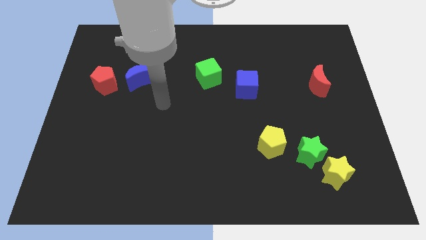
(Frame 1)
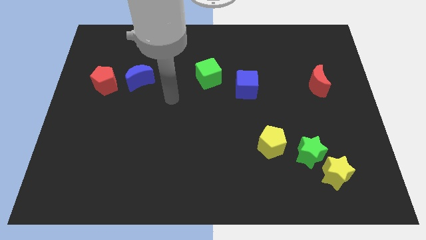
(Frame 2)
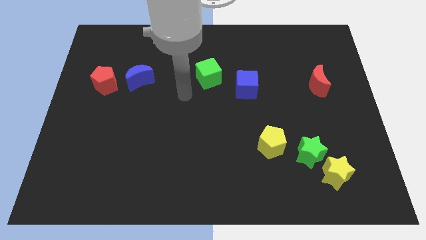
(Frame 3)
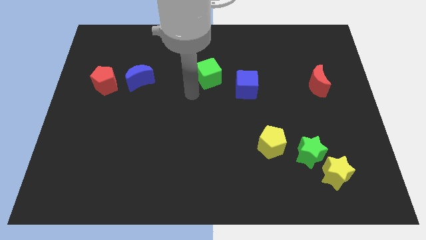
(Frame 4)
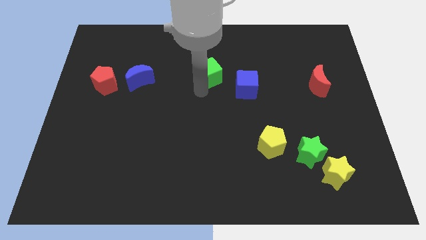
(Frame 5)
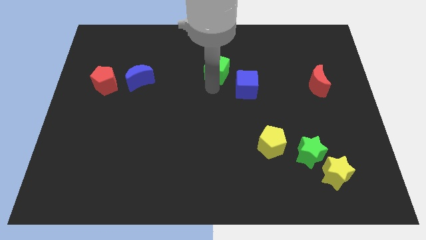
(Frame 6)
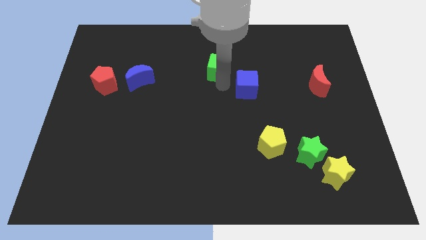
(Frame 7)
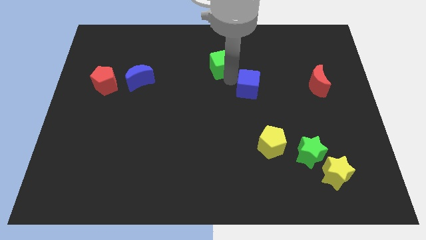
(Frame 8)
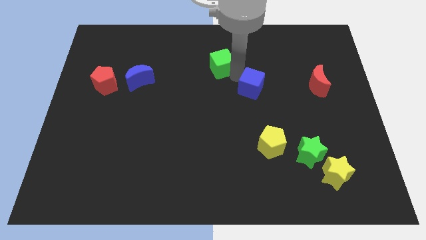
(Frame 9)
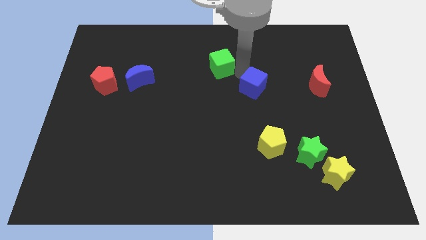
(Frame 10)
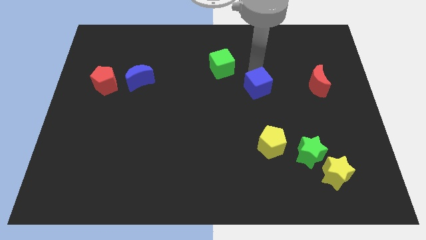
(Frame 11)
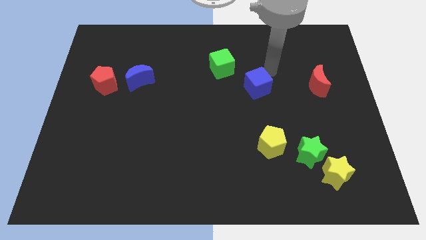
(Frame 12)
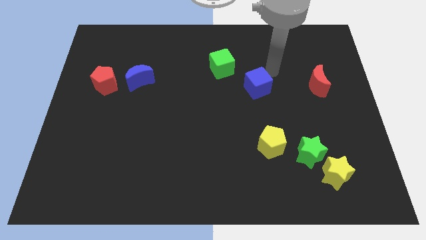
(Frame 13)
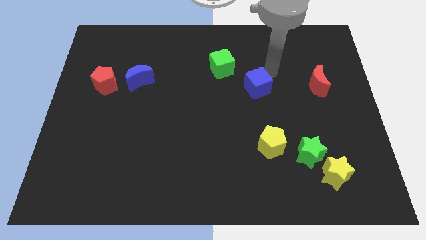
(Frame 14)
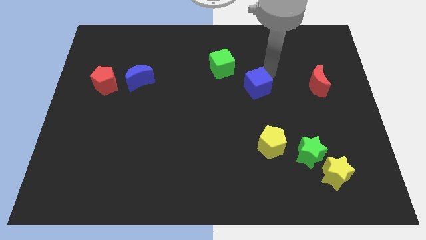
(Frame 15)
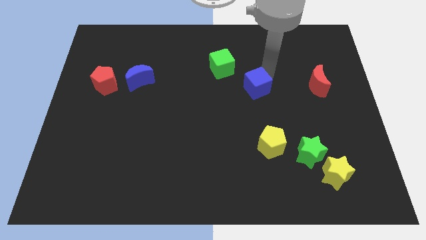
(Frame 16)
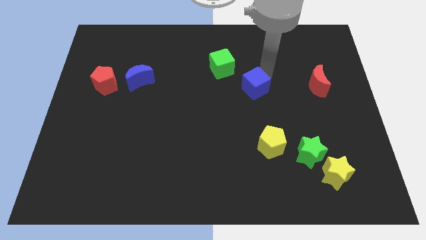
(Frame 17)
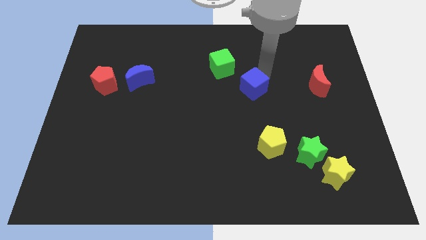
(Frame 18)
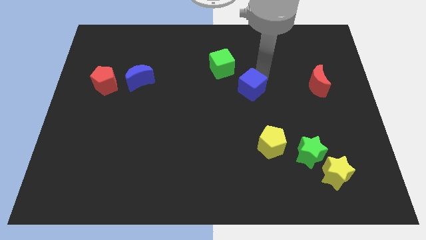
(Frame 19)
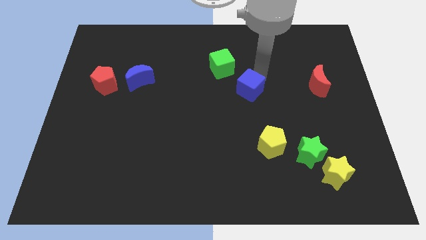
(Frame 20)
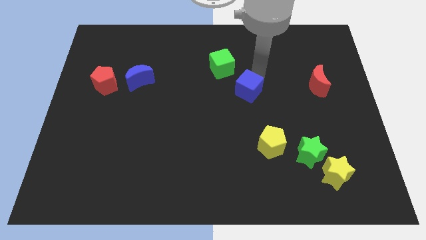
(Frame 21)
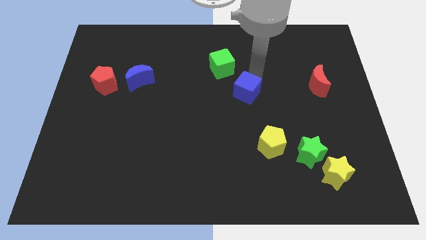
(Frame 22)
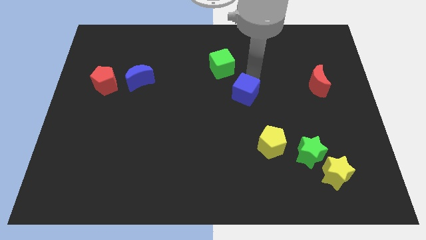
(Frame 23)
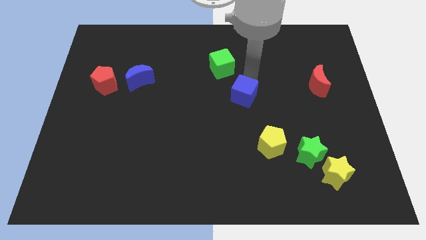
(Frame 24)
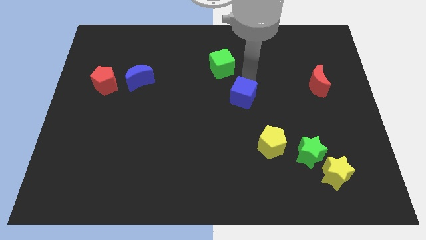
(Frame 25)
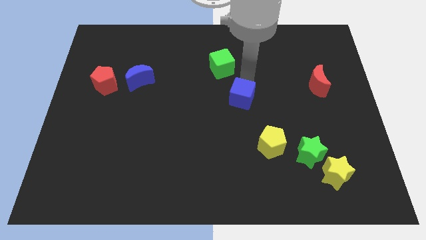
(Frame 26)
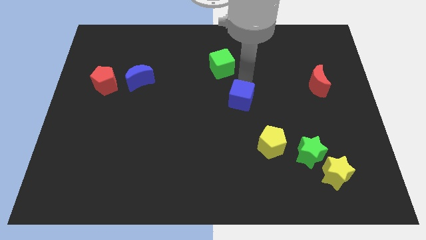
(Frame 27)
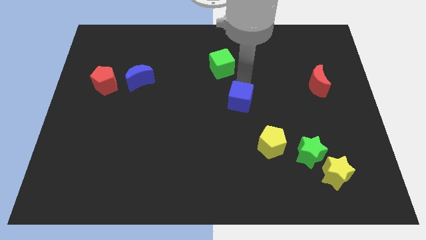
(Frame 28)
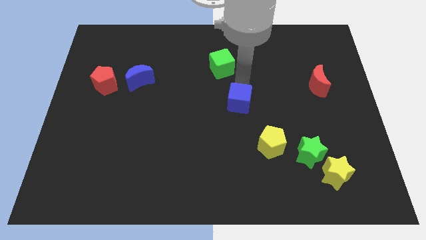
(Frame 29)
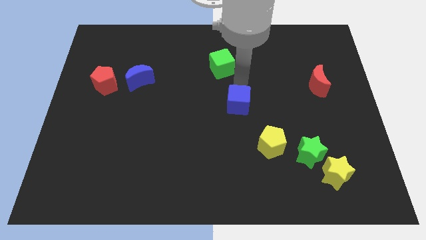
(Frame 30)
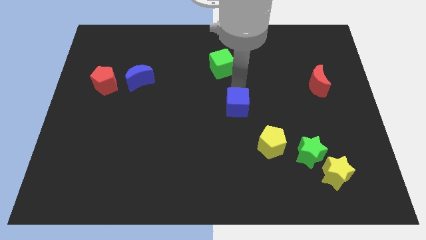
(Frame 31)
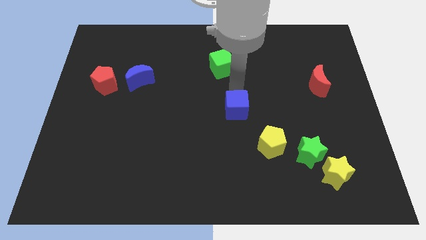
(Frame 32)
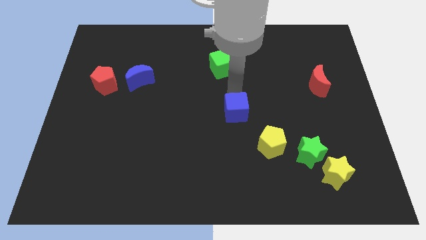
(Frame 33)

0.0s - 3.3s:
push the blue cube downwards a little bit

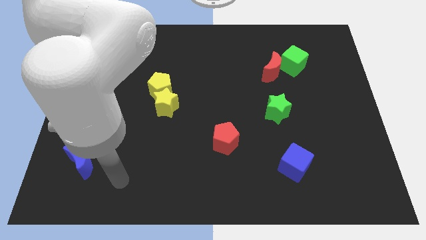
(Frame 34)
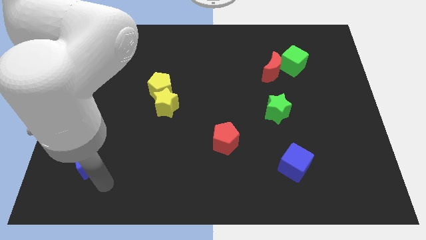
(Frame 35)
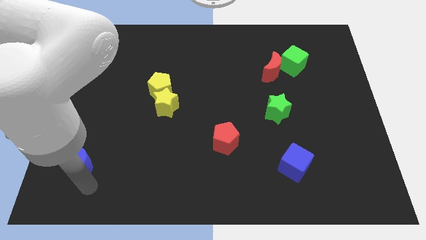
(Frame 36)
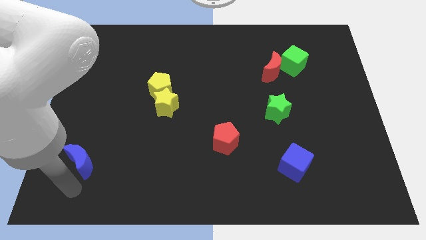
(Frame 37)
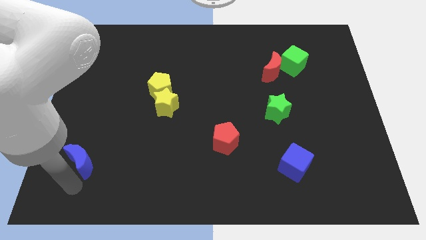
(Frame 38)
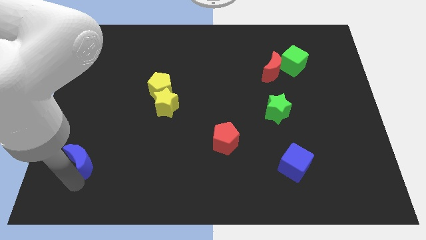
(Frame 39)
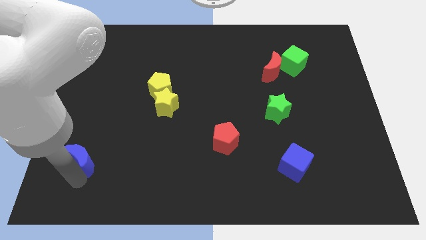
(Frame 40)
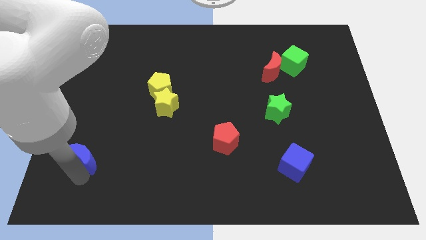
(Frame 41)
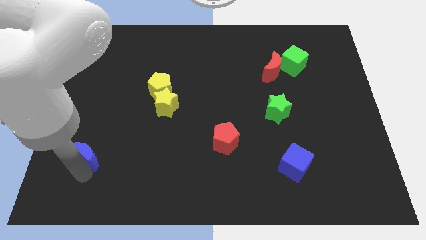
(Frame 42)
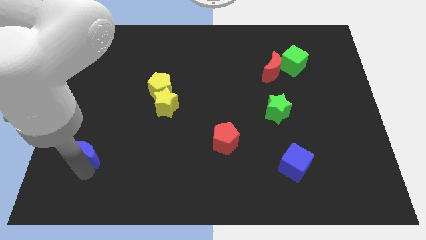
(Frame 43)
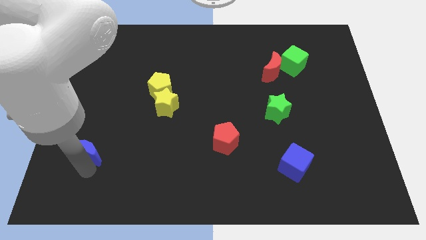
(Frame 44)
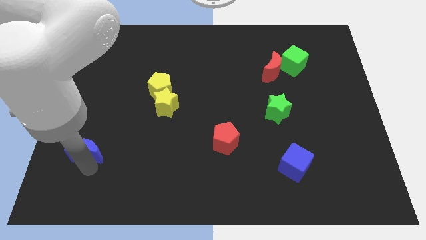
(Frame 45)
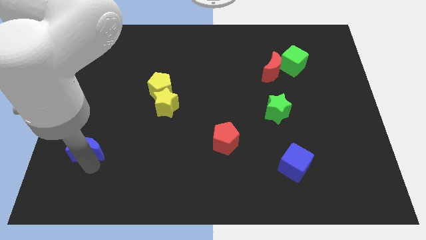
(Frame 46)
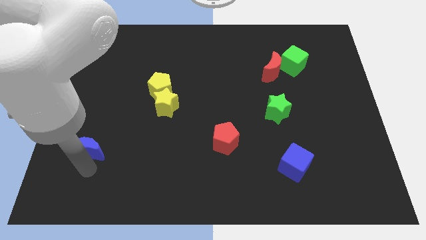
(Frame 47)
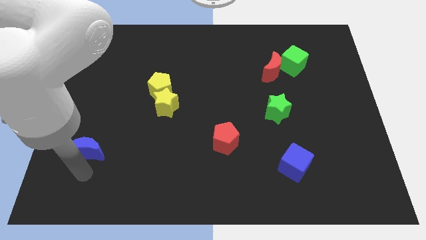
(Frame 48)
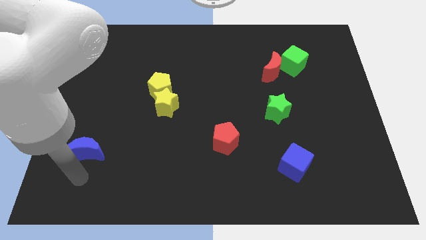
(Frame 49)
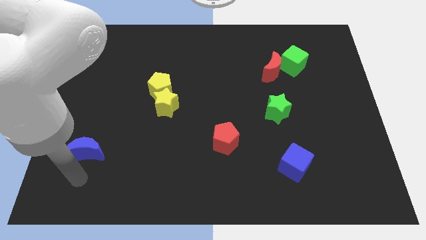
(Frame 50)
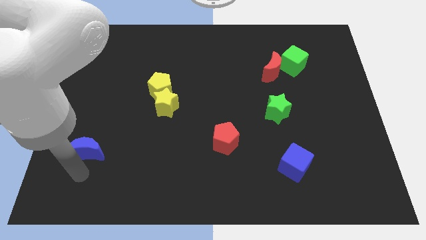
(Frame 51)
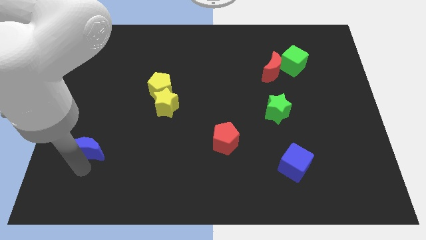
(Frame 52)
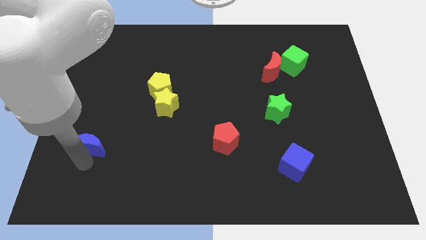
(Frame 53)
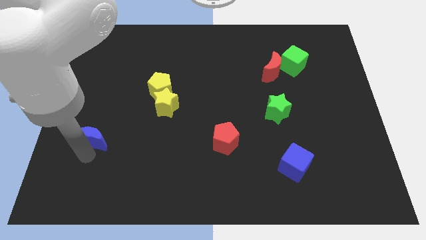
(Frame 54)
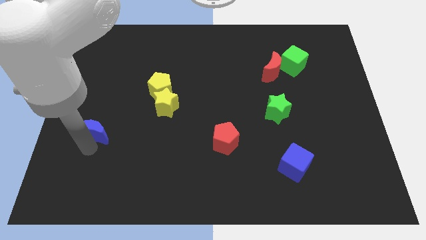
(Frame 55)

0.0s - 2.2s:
move the blue moon a little up

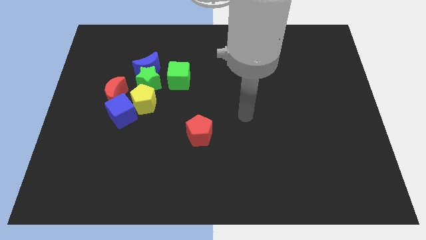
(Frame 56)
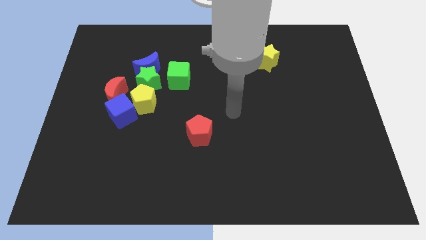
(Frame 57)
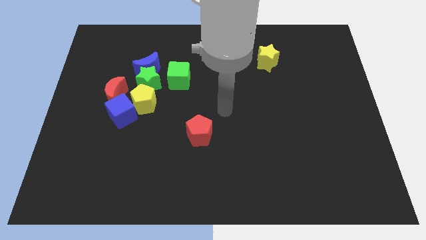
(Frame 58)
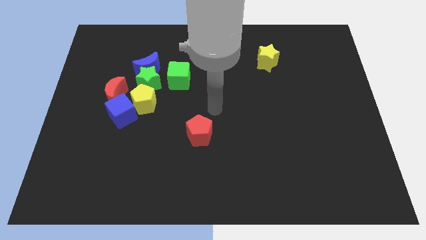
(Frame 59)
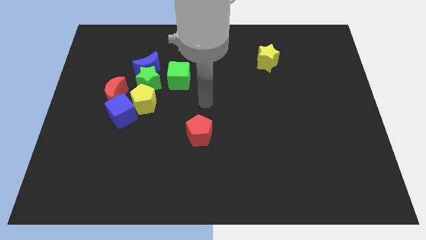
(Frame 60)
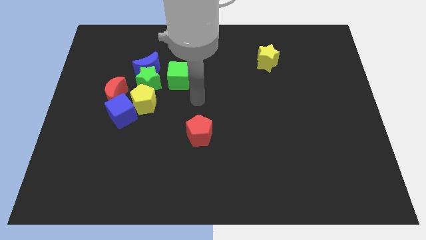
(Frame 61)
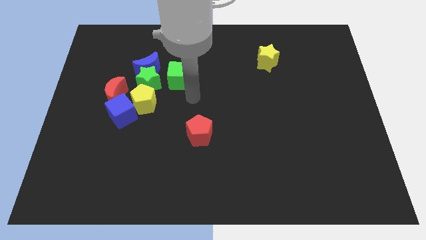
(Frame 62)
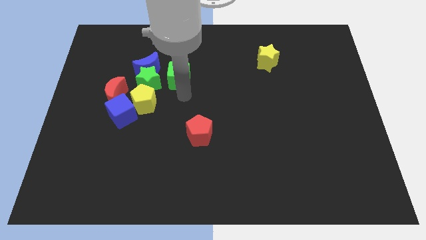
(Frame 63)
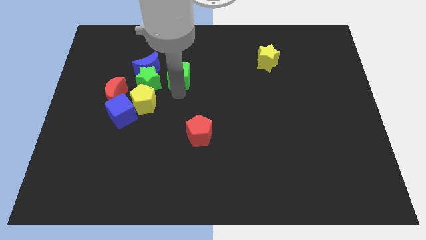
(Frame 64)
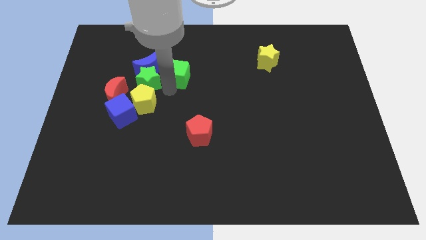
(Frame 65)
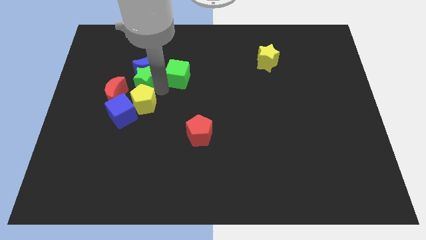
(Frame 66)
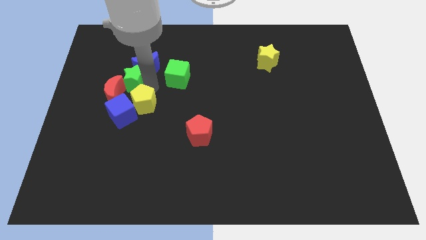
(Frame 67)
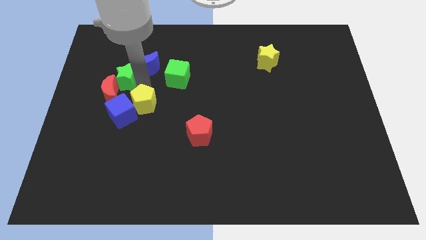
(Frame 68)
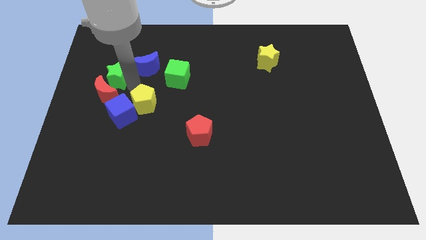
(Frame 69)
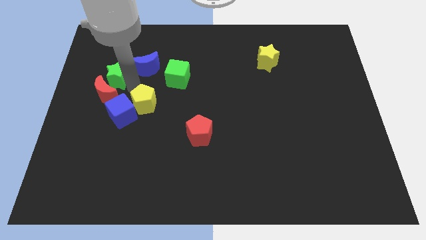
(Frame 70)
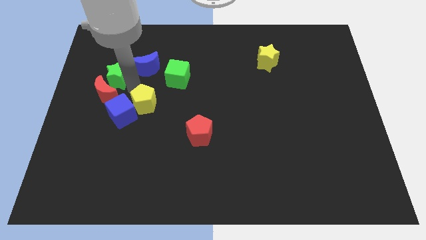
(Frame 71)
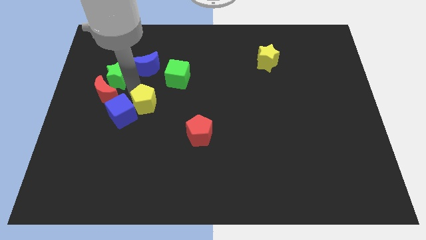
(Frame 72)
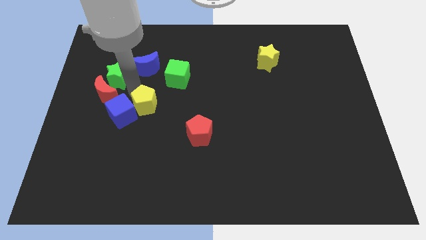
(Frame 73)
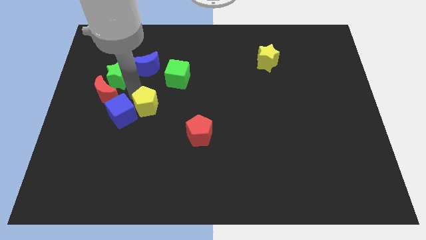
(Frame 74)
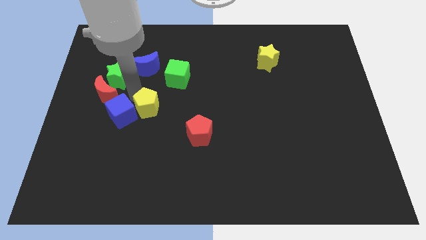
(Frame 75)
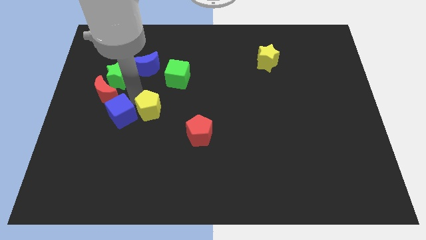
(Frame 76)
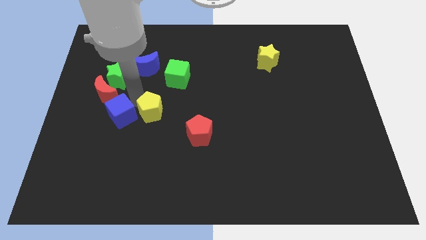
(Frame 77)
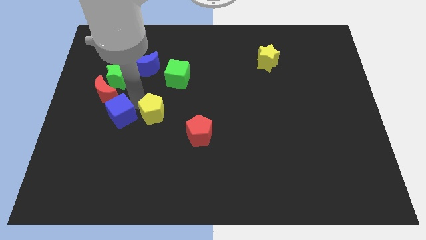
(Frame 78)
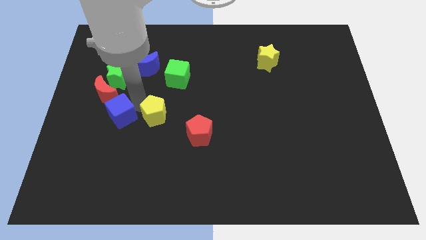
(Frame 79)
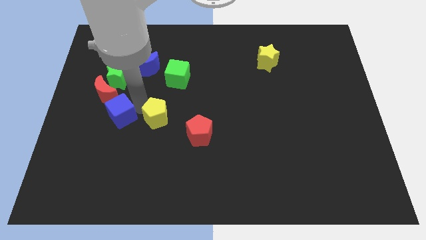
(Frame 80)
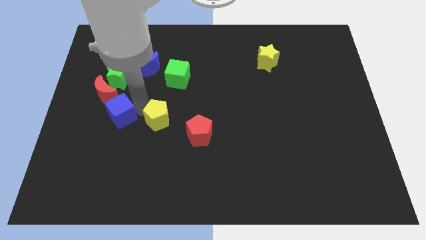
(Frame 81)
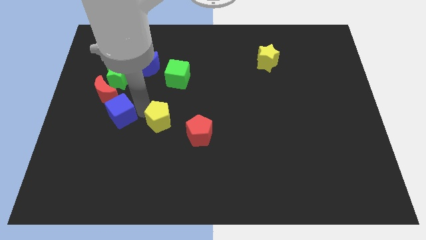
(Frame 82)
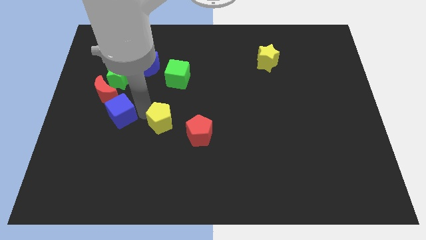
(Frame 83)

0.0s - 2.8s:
slightly slide the yellow pentagon downwards and then right
